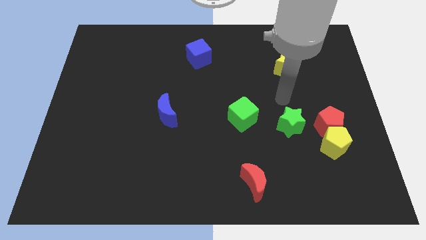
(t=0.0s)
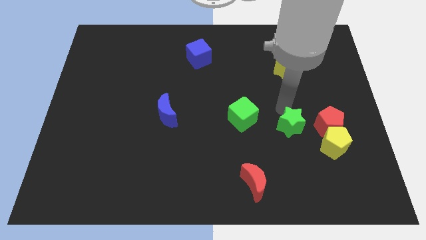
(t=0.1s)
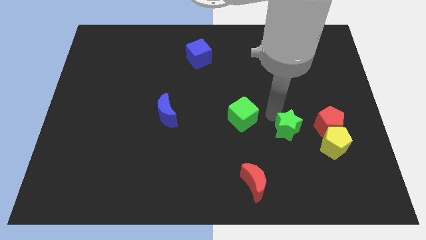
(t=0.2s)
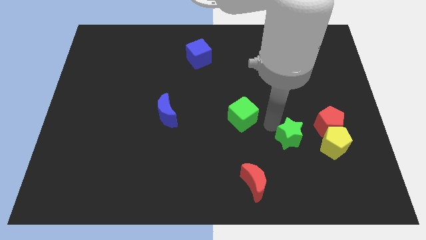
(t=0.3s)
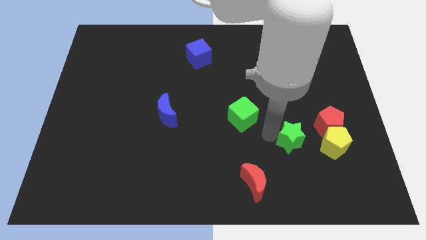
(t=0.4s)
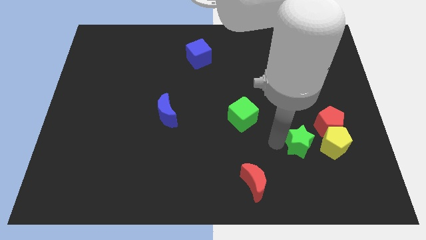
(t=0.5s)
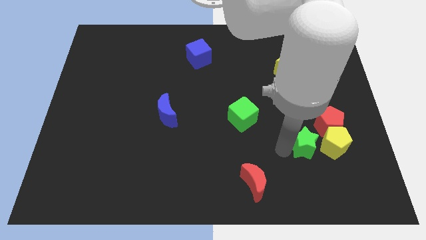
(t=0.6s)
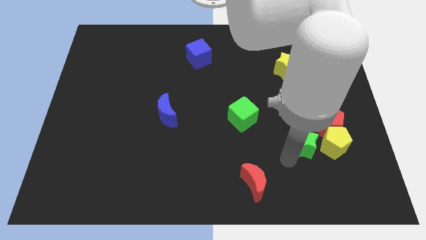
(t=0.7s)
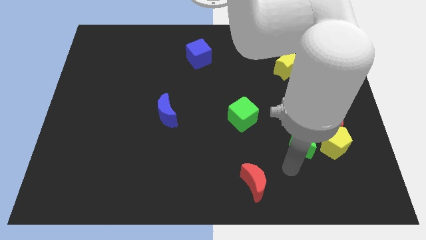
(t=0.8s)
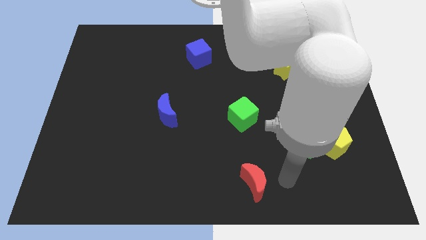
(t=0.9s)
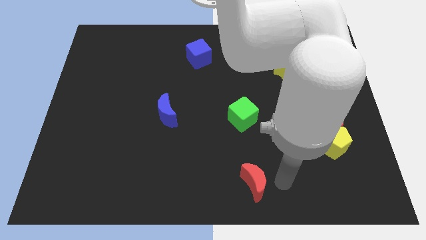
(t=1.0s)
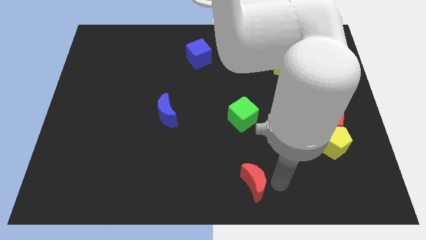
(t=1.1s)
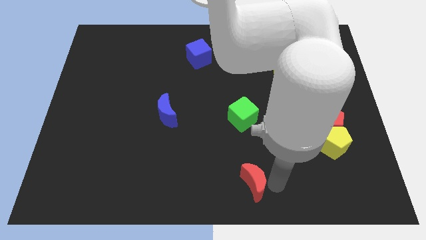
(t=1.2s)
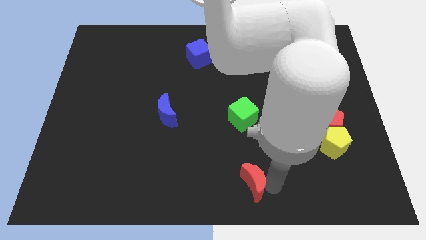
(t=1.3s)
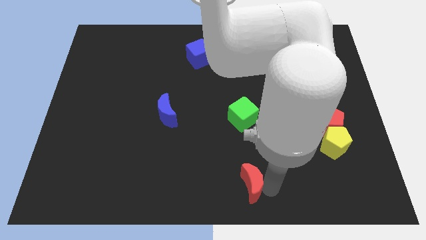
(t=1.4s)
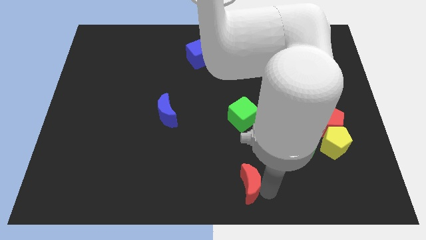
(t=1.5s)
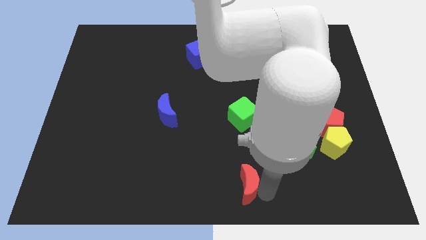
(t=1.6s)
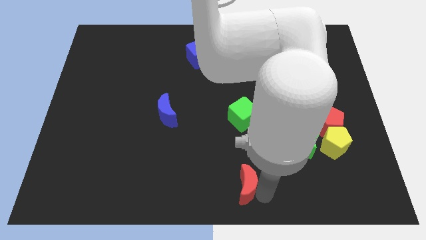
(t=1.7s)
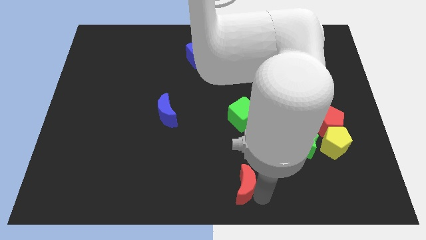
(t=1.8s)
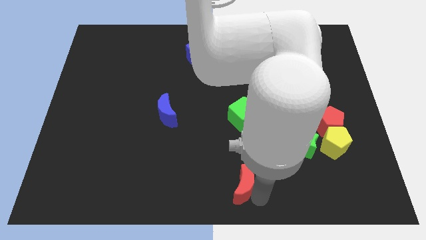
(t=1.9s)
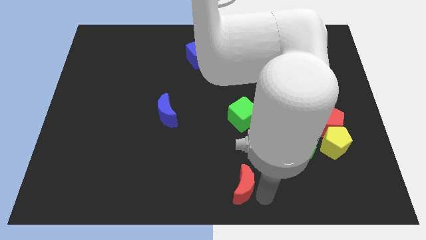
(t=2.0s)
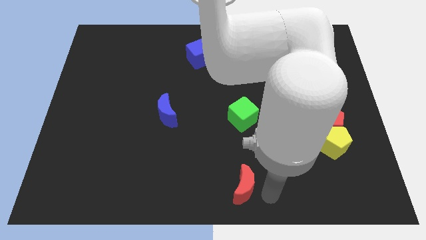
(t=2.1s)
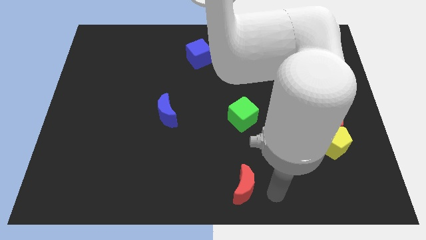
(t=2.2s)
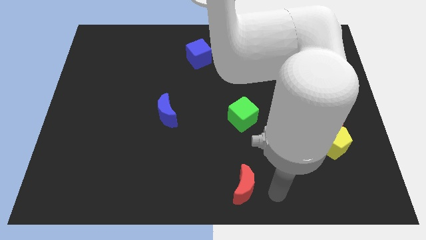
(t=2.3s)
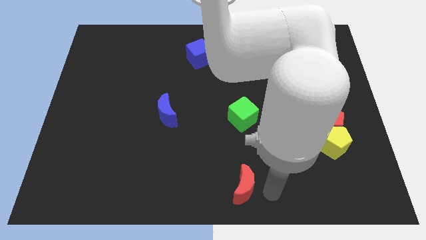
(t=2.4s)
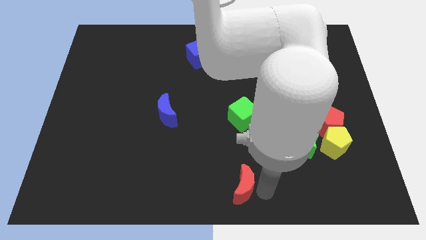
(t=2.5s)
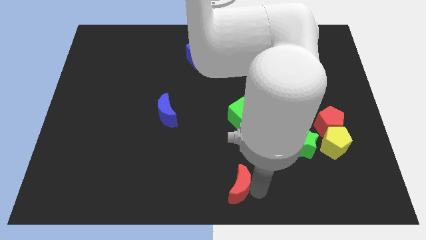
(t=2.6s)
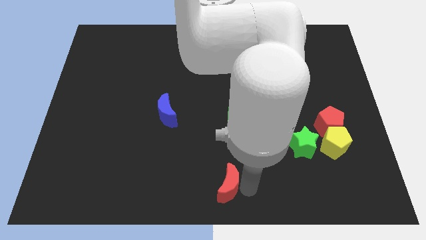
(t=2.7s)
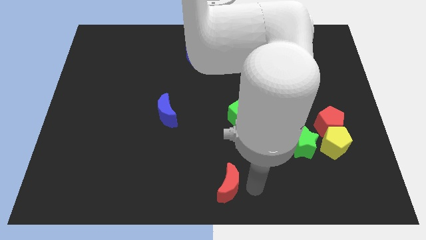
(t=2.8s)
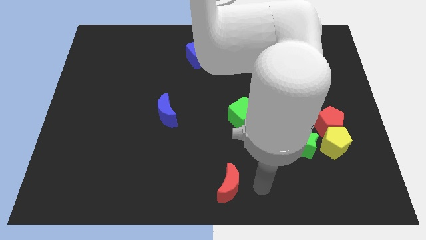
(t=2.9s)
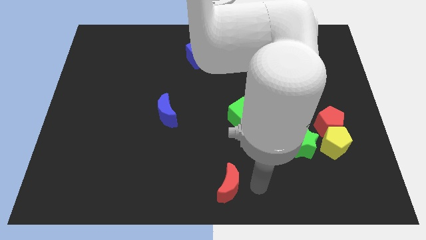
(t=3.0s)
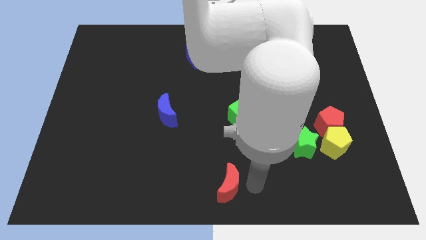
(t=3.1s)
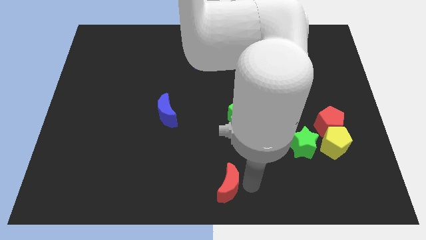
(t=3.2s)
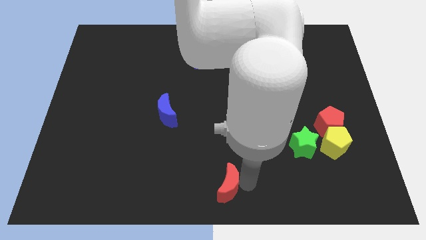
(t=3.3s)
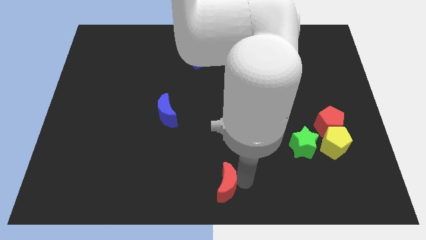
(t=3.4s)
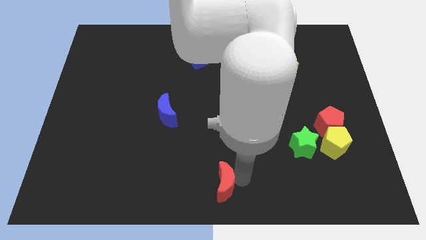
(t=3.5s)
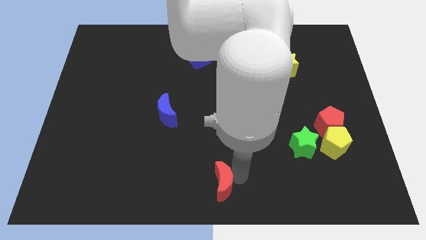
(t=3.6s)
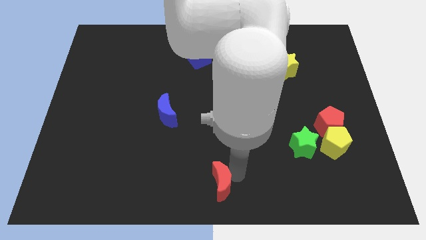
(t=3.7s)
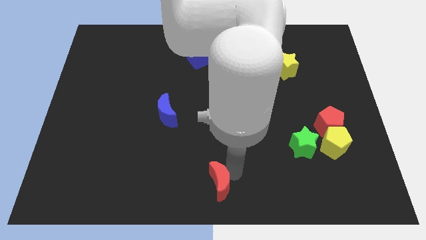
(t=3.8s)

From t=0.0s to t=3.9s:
slide the red moon to the left a little

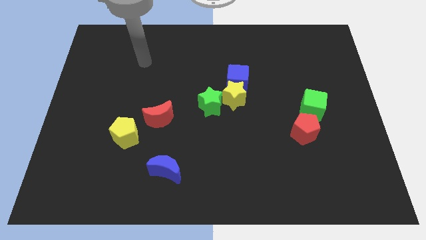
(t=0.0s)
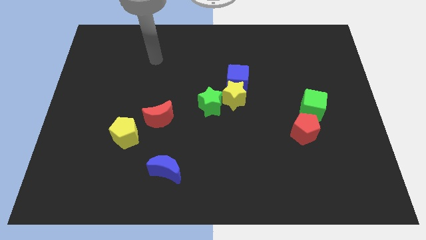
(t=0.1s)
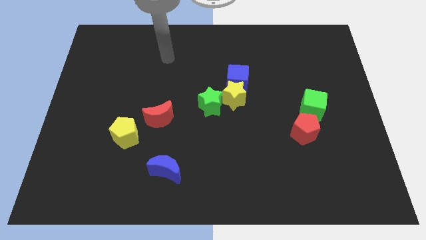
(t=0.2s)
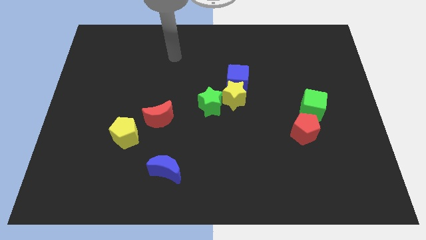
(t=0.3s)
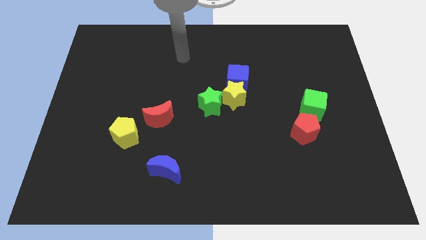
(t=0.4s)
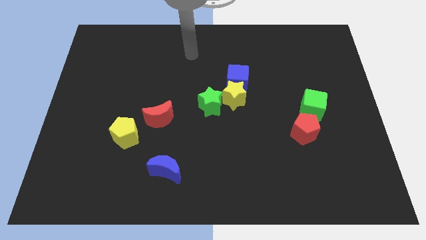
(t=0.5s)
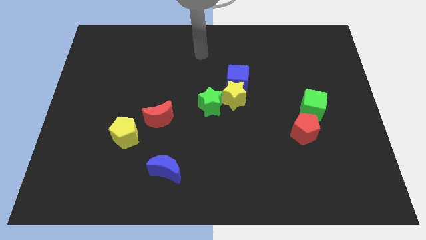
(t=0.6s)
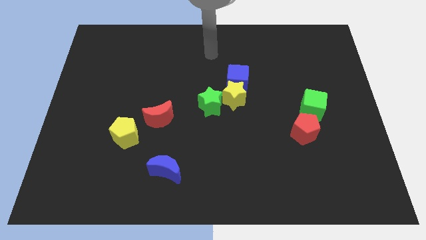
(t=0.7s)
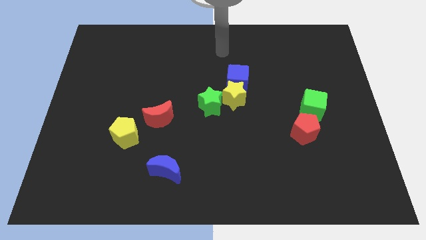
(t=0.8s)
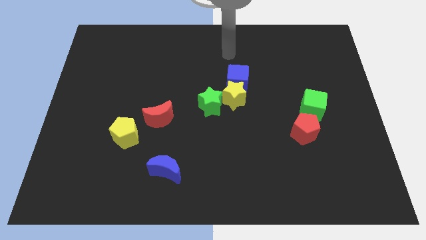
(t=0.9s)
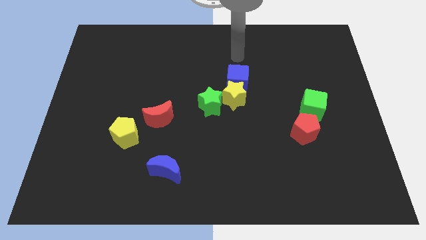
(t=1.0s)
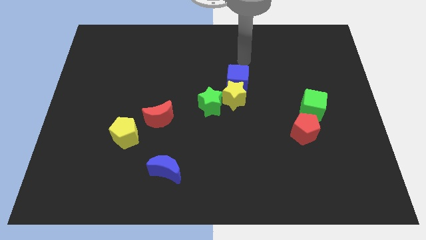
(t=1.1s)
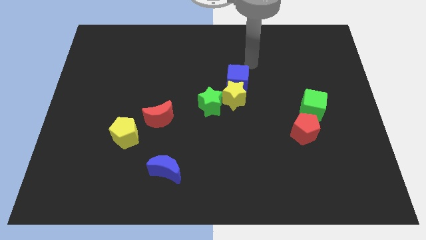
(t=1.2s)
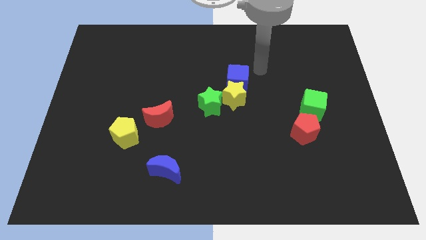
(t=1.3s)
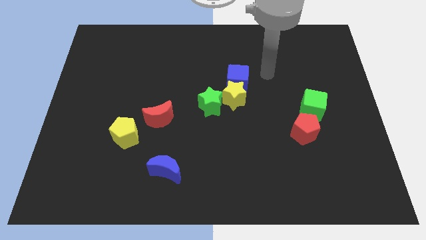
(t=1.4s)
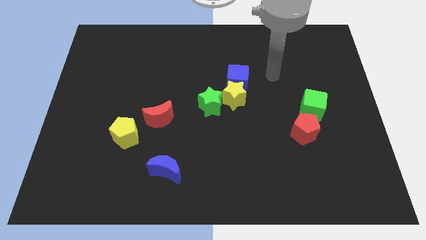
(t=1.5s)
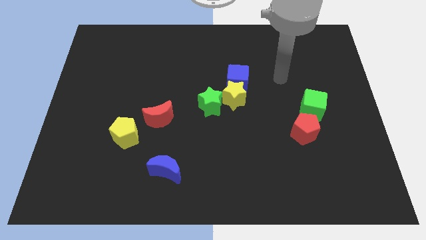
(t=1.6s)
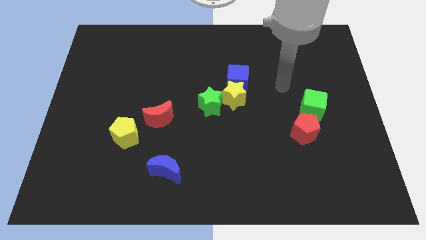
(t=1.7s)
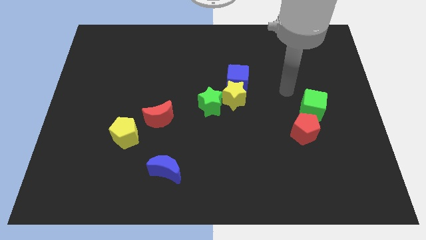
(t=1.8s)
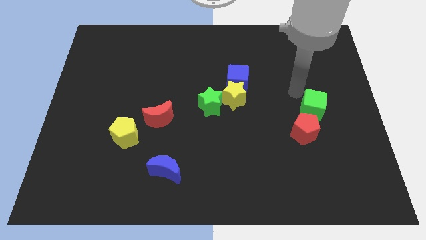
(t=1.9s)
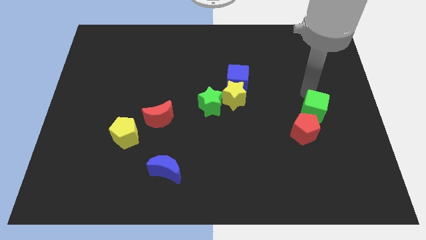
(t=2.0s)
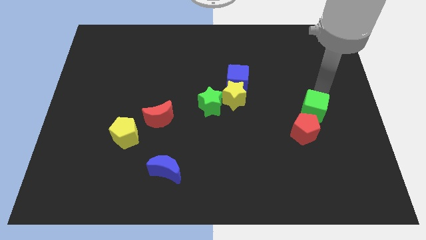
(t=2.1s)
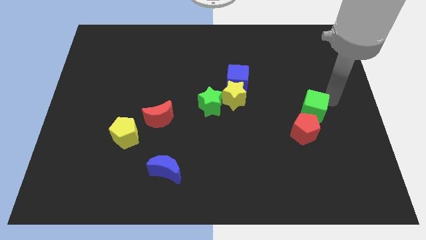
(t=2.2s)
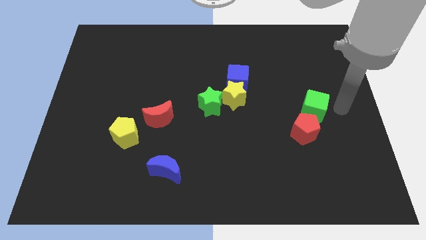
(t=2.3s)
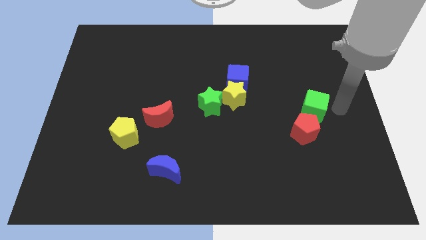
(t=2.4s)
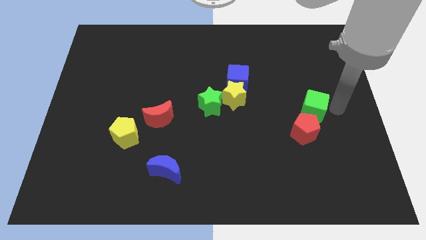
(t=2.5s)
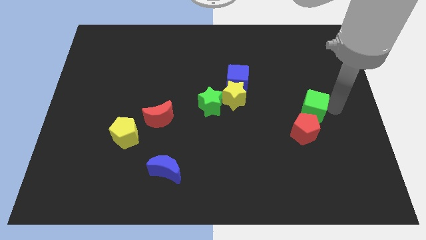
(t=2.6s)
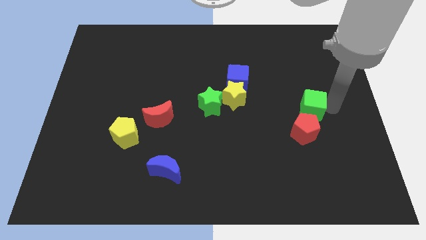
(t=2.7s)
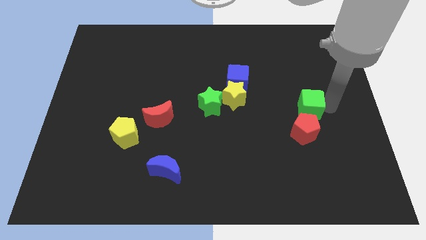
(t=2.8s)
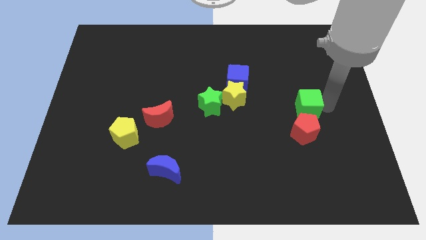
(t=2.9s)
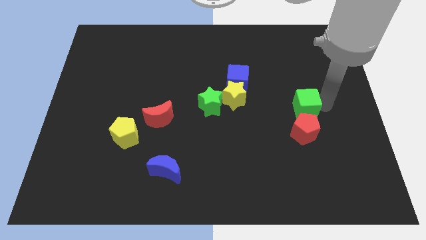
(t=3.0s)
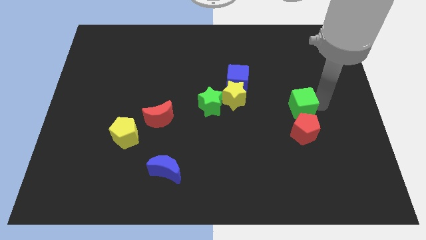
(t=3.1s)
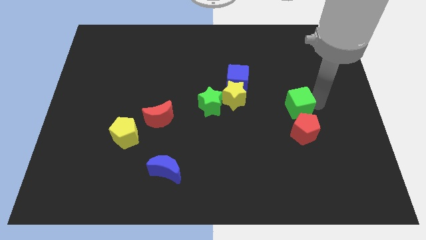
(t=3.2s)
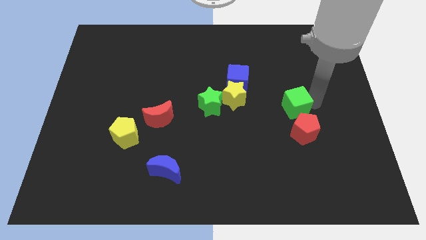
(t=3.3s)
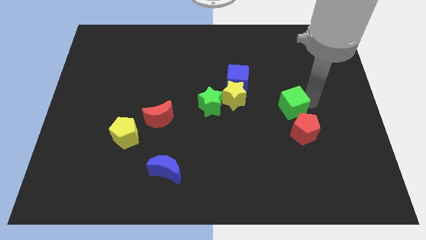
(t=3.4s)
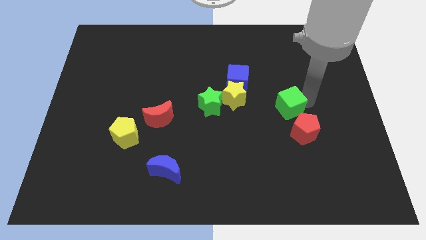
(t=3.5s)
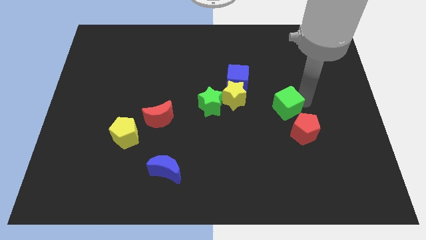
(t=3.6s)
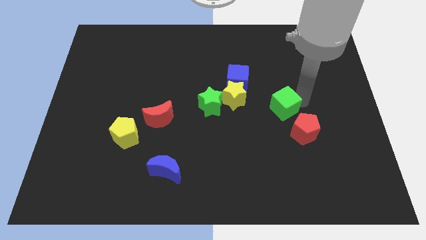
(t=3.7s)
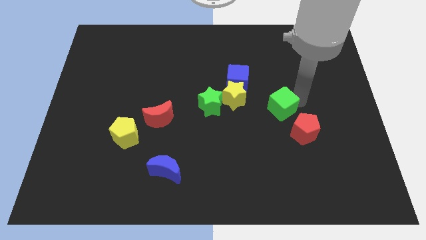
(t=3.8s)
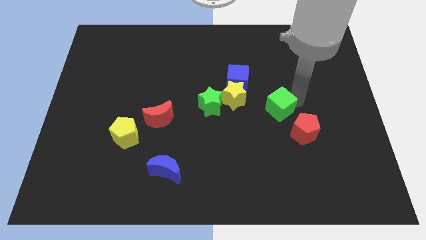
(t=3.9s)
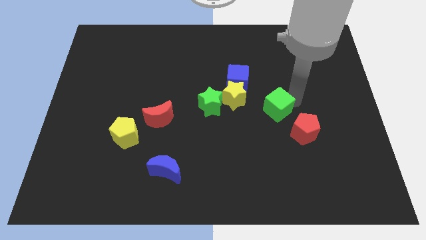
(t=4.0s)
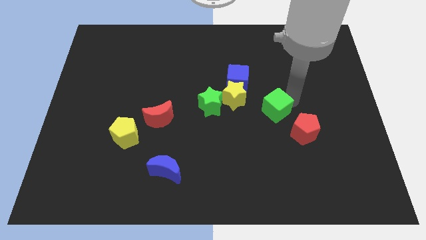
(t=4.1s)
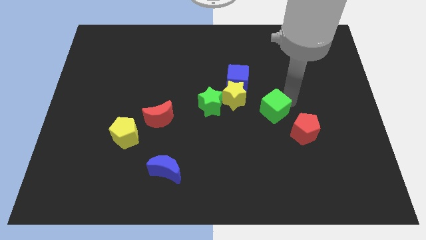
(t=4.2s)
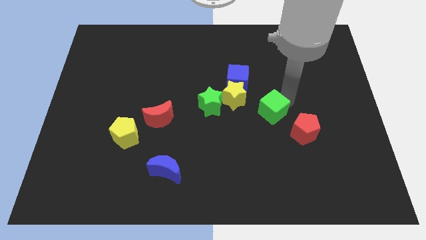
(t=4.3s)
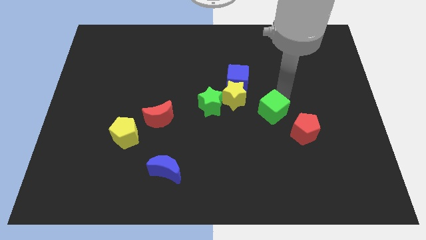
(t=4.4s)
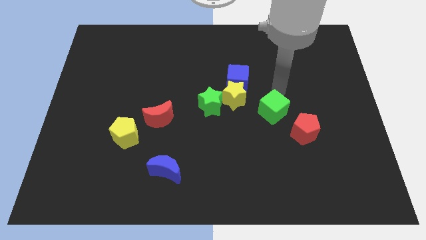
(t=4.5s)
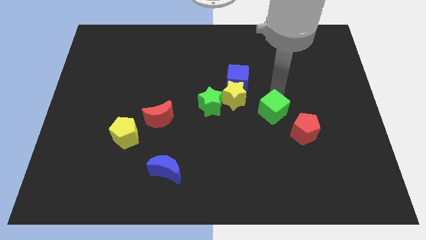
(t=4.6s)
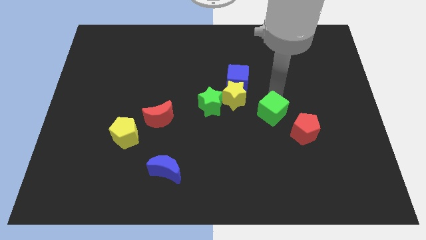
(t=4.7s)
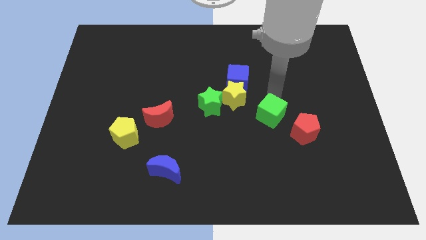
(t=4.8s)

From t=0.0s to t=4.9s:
move the green cube diagonally down and left slightly
